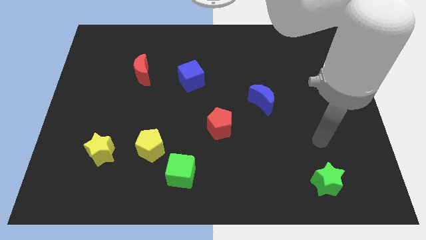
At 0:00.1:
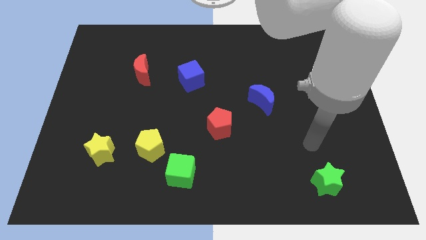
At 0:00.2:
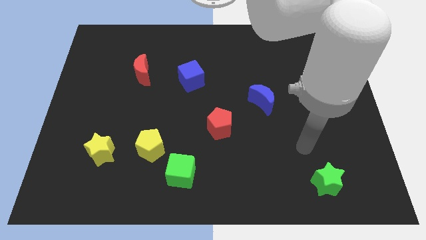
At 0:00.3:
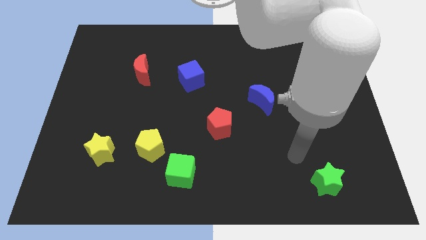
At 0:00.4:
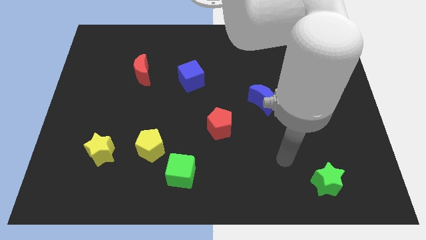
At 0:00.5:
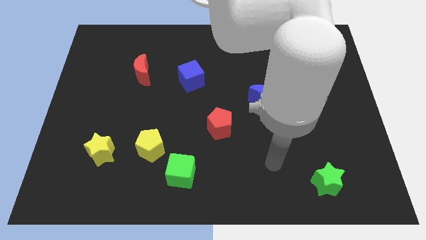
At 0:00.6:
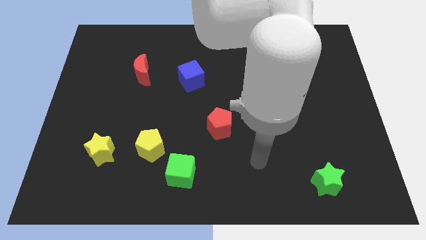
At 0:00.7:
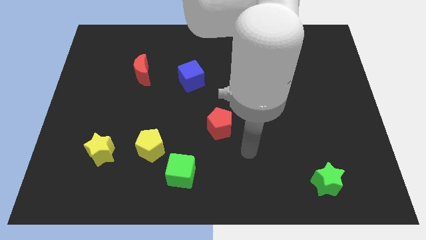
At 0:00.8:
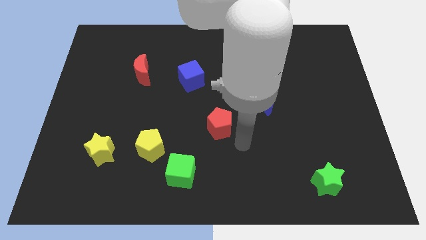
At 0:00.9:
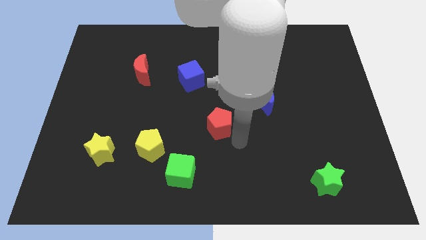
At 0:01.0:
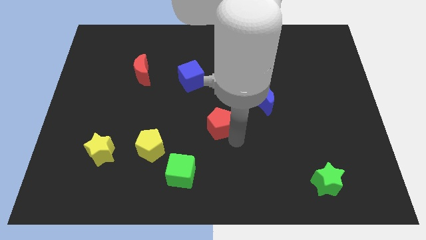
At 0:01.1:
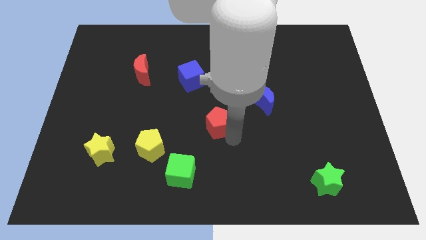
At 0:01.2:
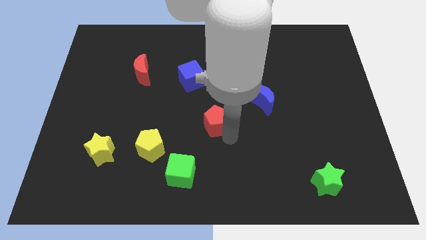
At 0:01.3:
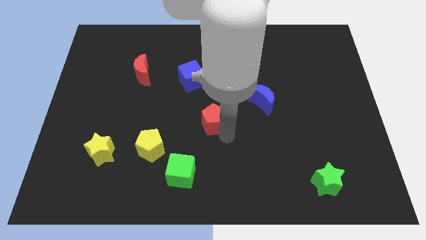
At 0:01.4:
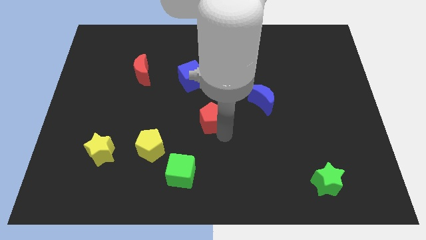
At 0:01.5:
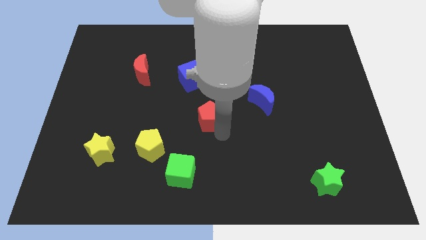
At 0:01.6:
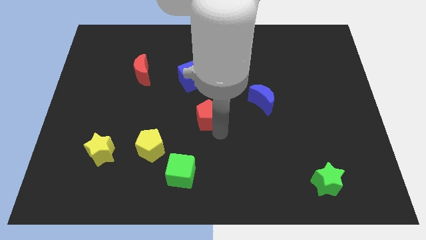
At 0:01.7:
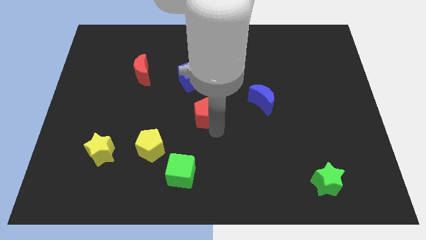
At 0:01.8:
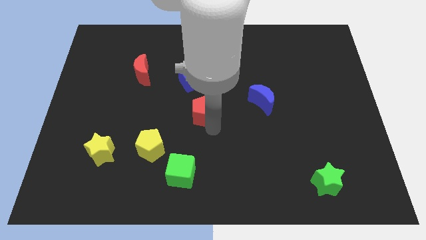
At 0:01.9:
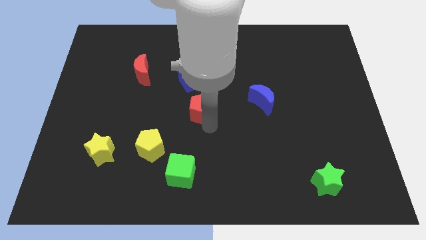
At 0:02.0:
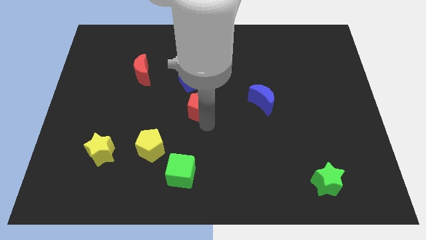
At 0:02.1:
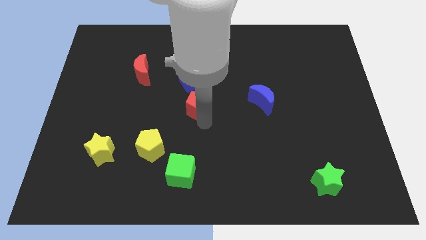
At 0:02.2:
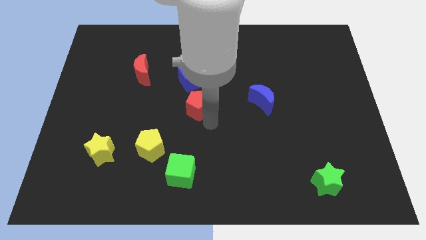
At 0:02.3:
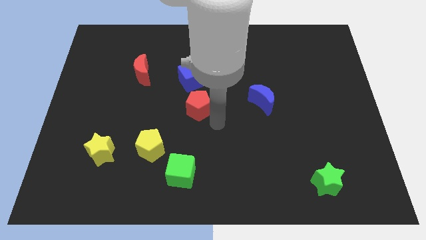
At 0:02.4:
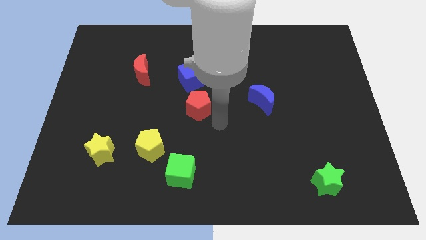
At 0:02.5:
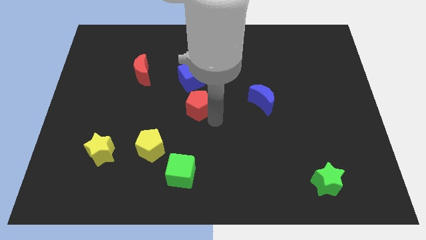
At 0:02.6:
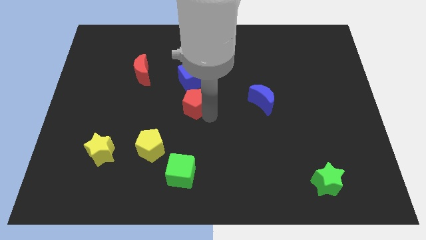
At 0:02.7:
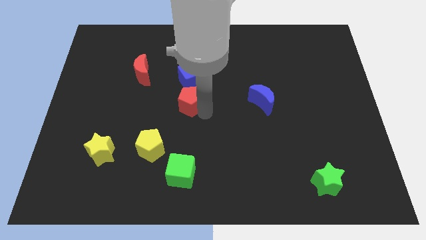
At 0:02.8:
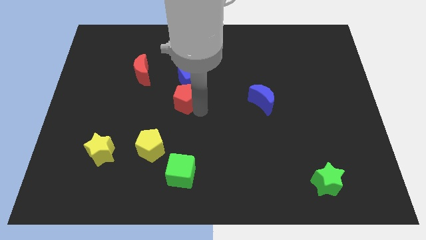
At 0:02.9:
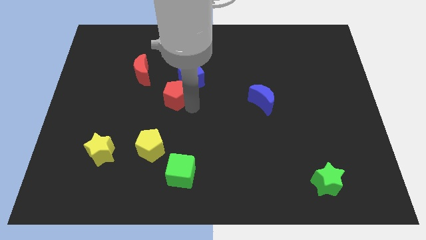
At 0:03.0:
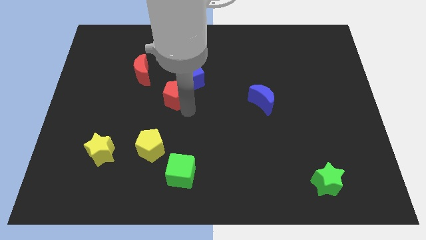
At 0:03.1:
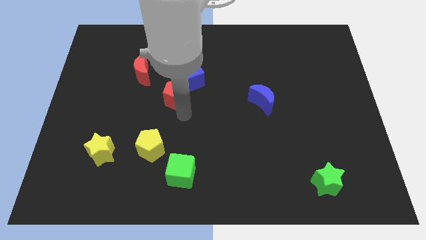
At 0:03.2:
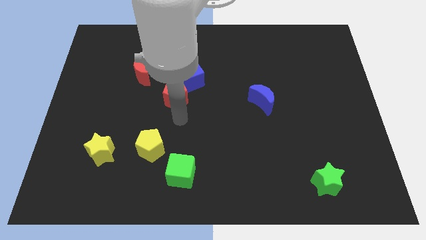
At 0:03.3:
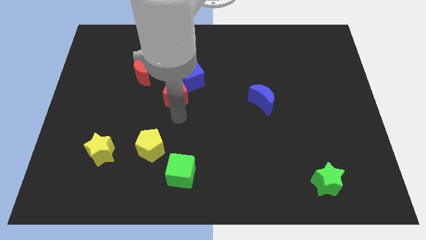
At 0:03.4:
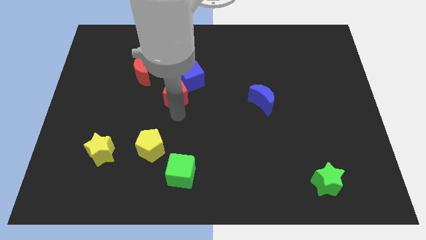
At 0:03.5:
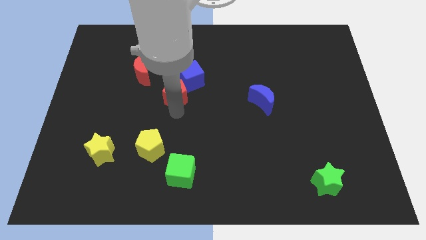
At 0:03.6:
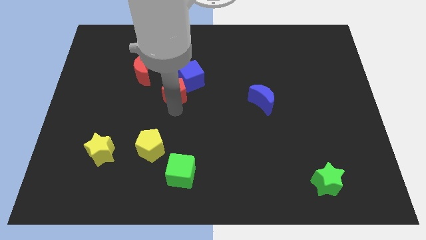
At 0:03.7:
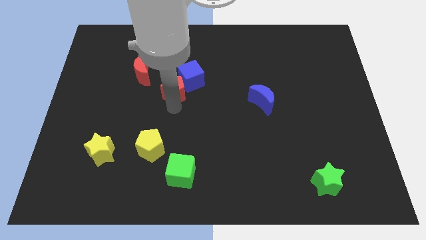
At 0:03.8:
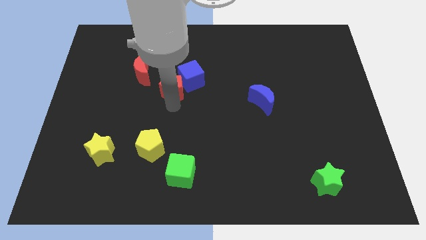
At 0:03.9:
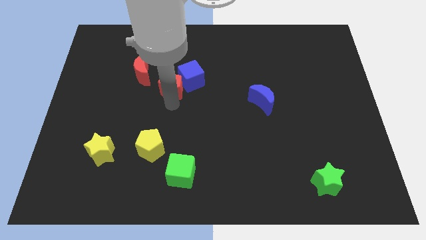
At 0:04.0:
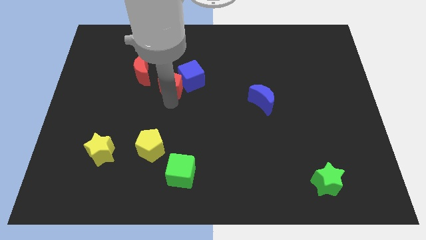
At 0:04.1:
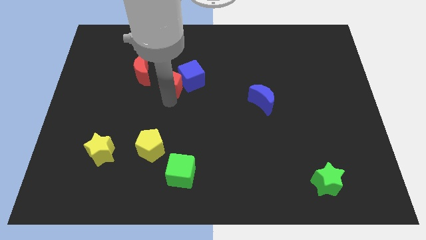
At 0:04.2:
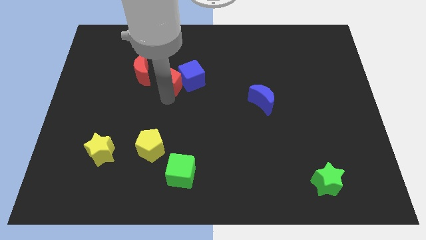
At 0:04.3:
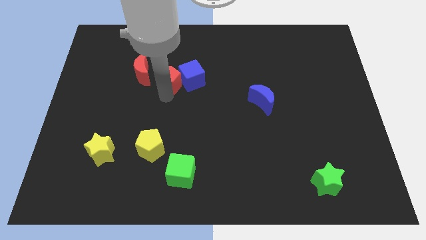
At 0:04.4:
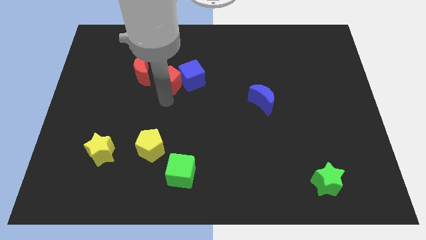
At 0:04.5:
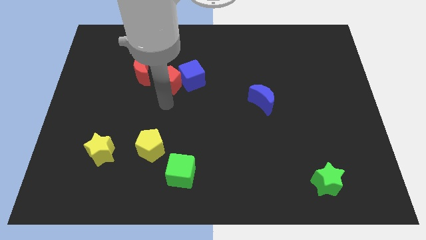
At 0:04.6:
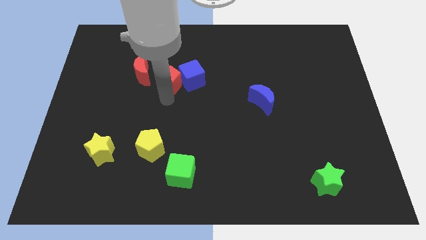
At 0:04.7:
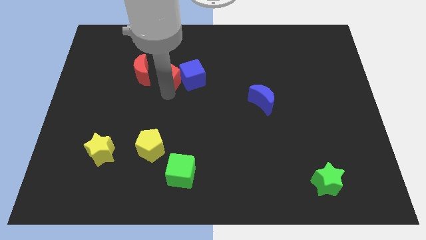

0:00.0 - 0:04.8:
push the red pentagon to the top left side of the blue cube

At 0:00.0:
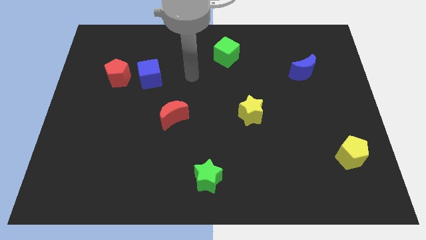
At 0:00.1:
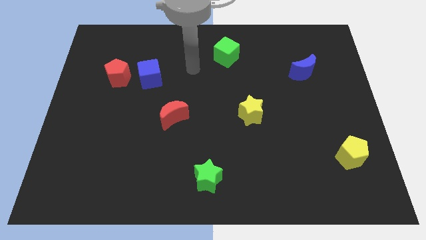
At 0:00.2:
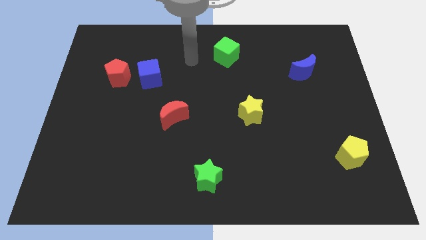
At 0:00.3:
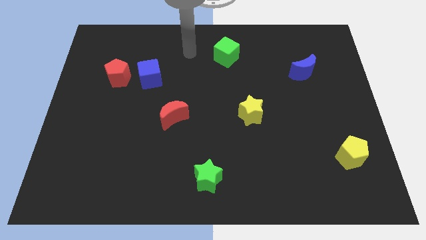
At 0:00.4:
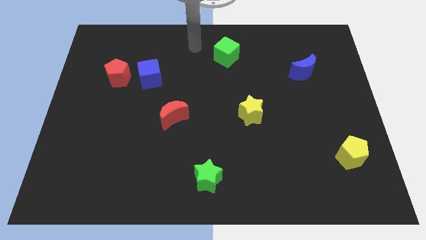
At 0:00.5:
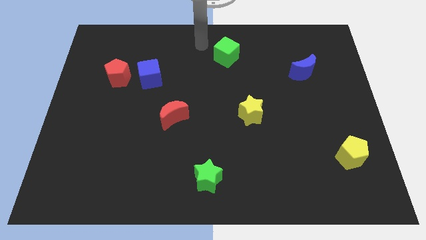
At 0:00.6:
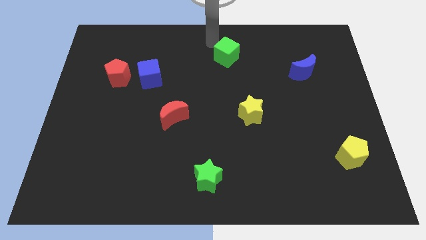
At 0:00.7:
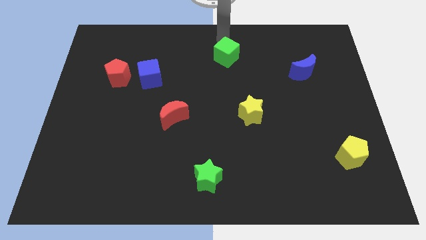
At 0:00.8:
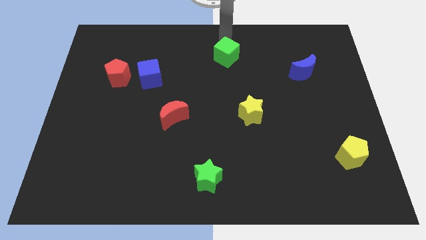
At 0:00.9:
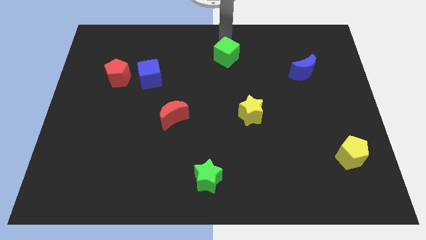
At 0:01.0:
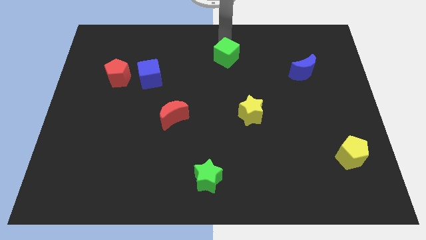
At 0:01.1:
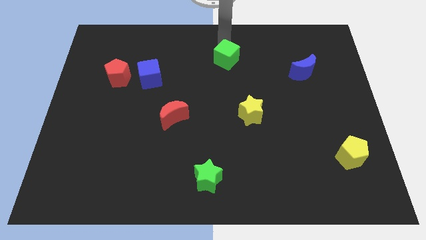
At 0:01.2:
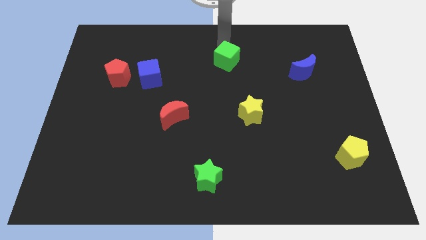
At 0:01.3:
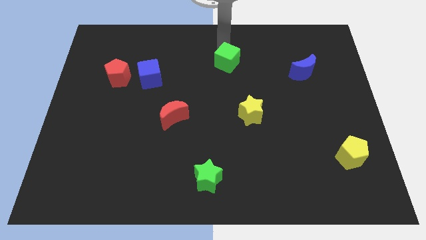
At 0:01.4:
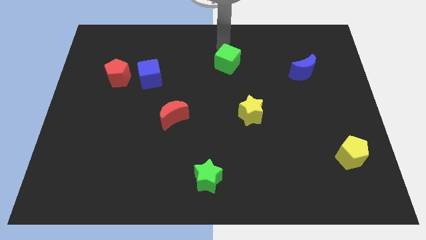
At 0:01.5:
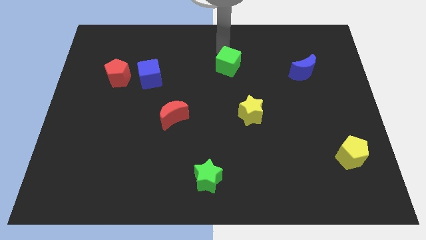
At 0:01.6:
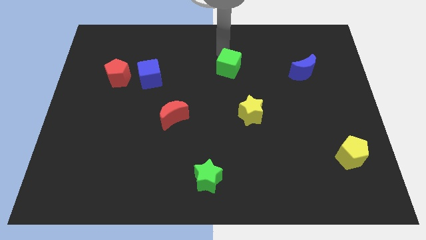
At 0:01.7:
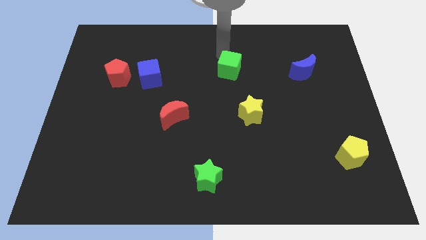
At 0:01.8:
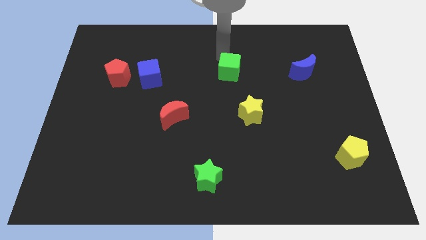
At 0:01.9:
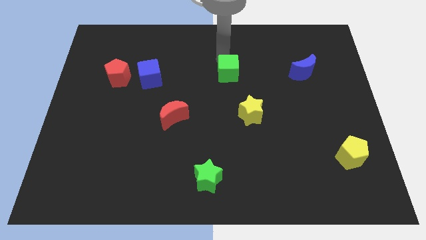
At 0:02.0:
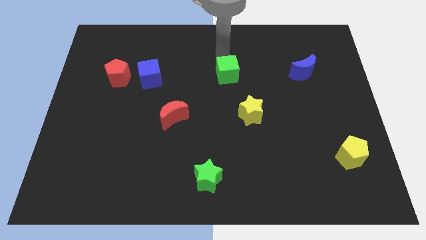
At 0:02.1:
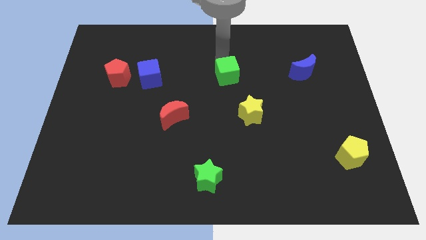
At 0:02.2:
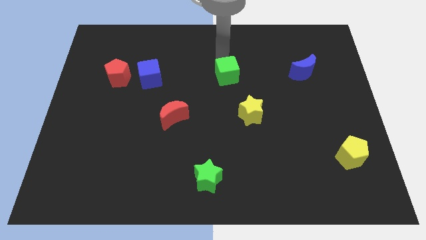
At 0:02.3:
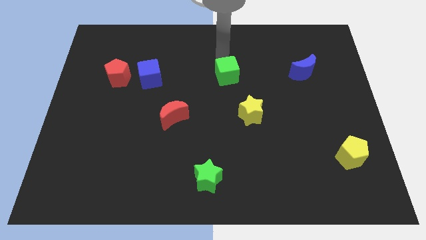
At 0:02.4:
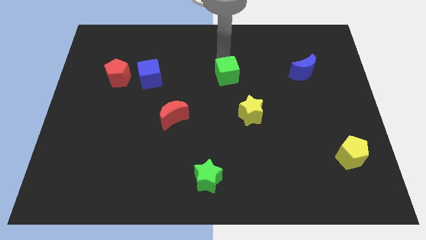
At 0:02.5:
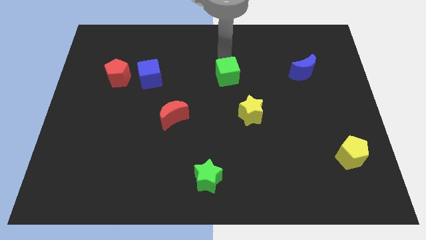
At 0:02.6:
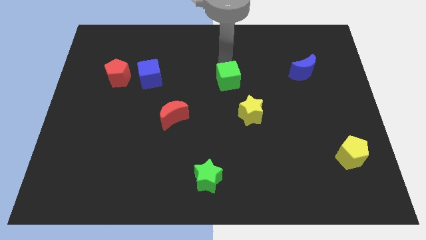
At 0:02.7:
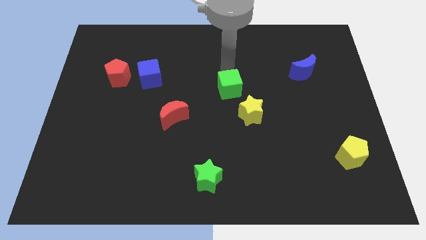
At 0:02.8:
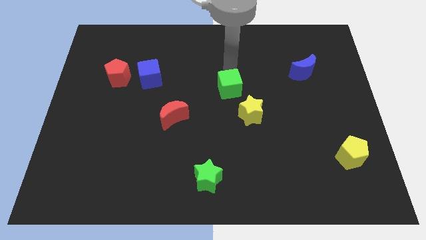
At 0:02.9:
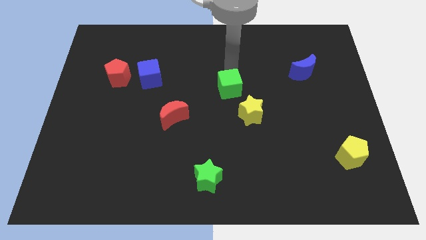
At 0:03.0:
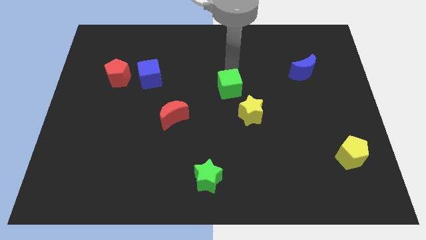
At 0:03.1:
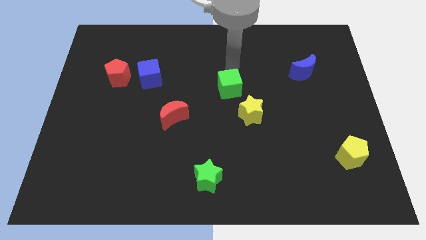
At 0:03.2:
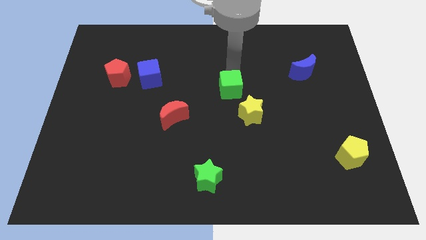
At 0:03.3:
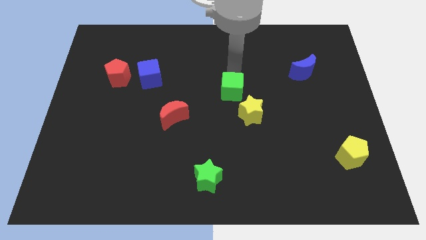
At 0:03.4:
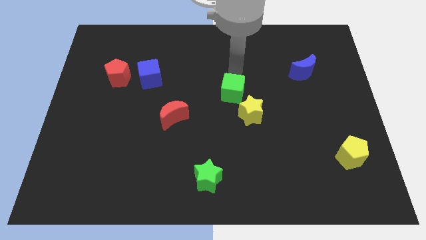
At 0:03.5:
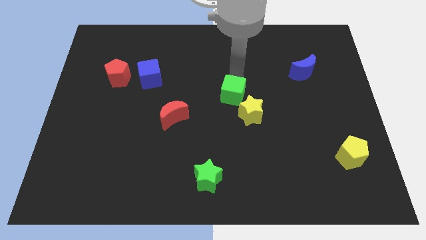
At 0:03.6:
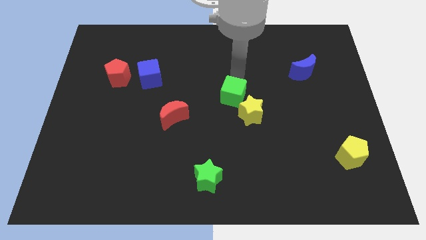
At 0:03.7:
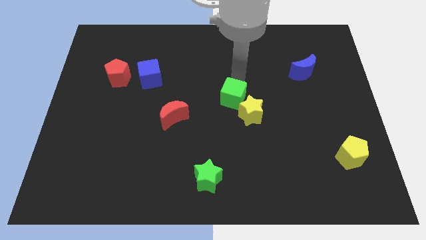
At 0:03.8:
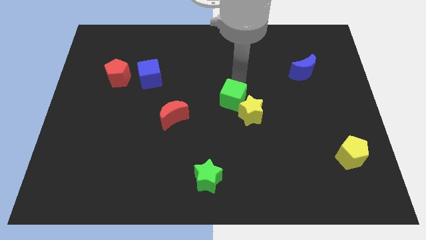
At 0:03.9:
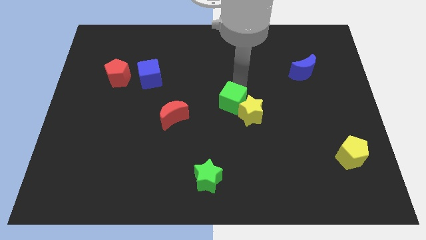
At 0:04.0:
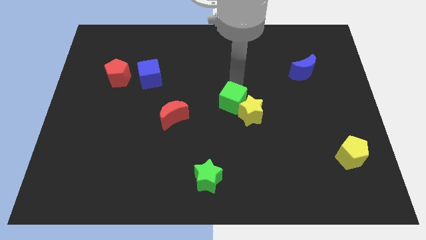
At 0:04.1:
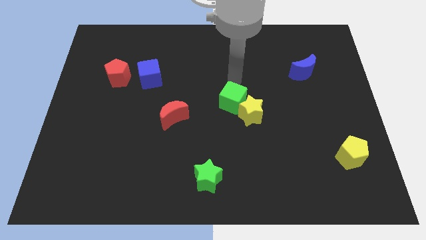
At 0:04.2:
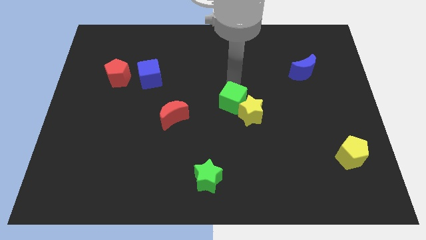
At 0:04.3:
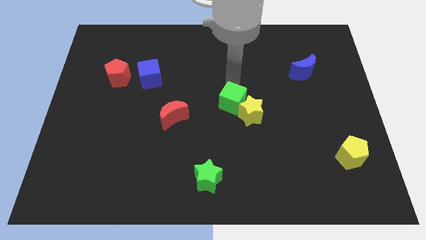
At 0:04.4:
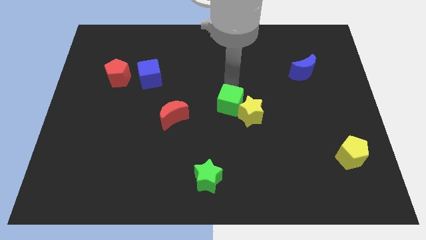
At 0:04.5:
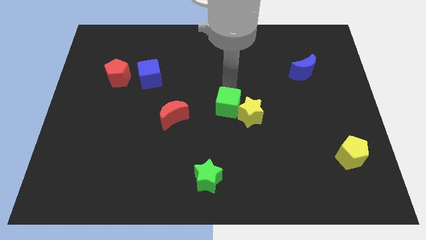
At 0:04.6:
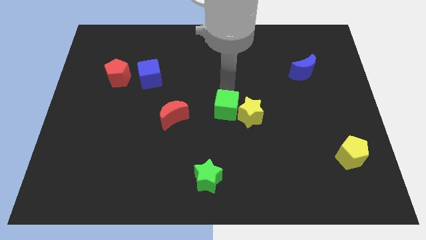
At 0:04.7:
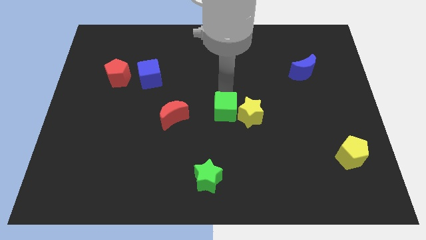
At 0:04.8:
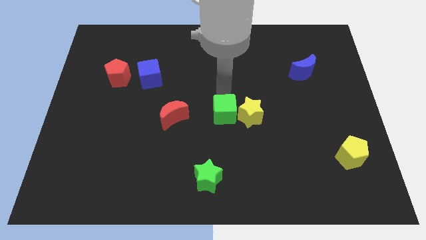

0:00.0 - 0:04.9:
push the green cube diagonally down and to the left of the yellow star
